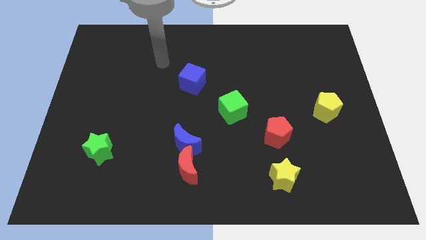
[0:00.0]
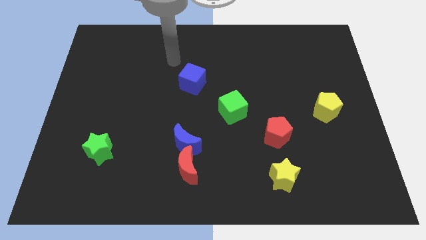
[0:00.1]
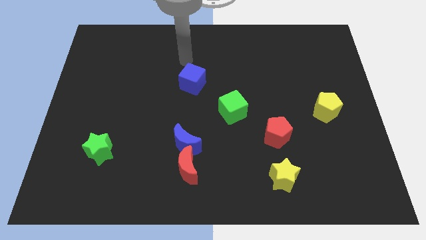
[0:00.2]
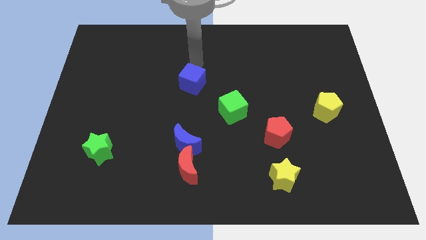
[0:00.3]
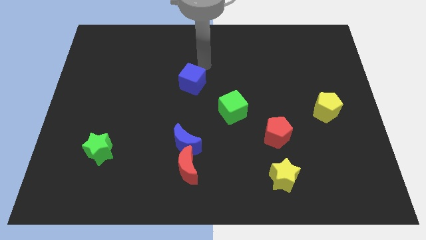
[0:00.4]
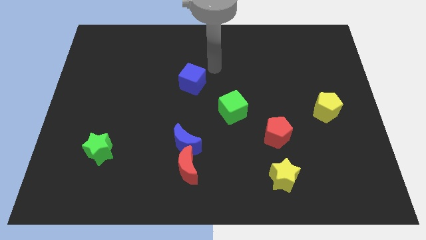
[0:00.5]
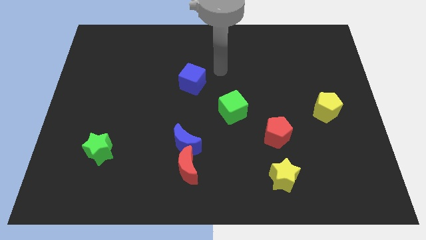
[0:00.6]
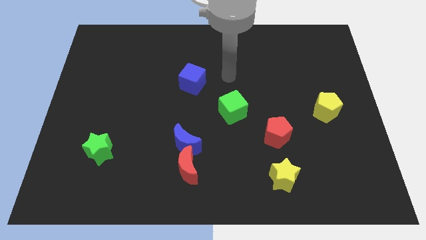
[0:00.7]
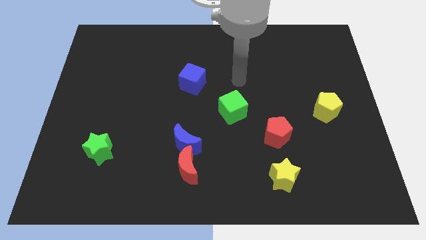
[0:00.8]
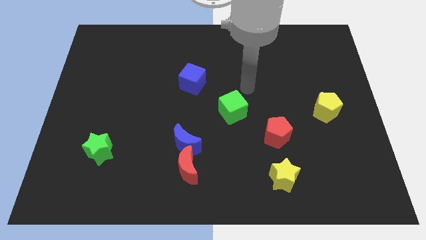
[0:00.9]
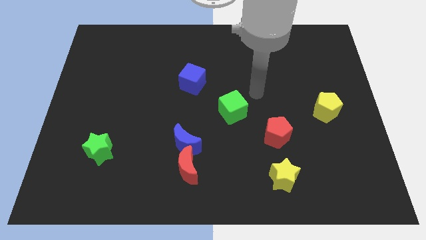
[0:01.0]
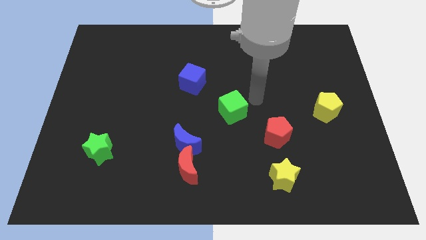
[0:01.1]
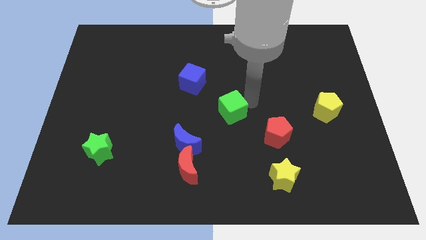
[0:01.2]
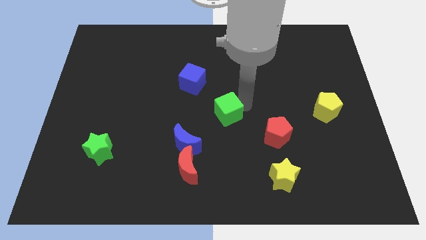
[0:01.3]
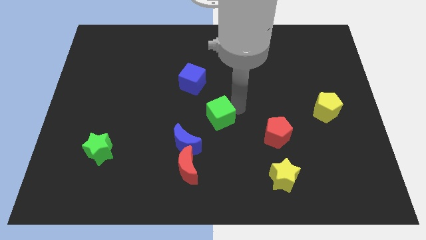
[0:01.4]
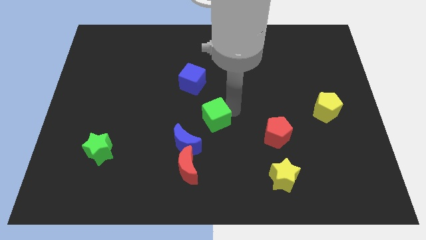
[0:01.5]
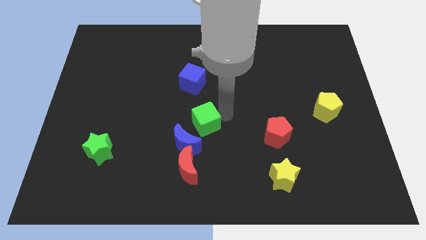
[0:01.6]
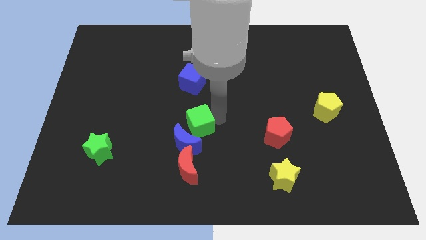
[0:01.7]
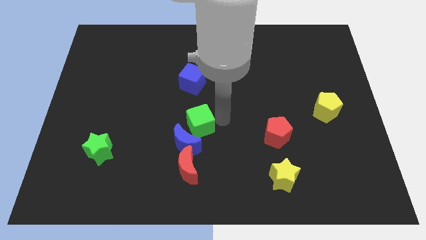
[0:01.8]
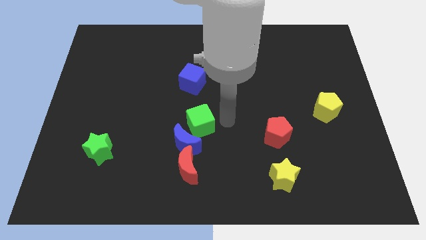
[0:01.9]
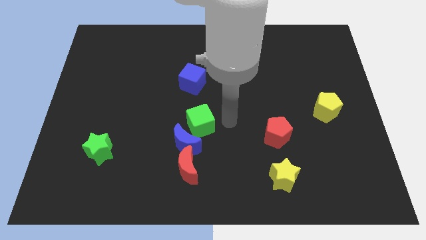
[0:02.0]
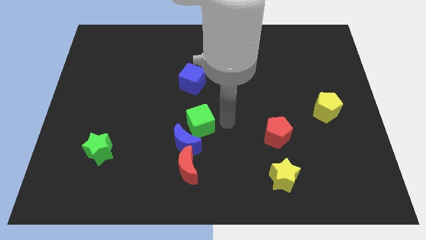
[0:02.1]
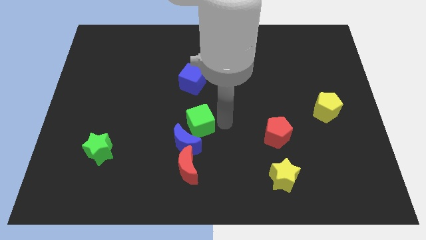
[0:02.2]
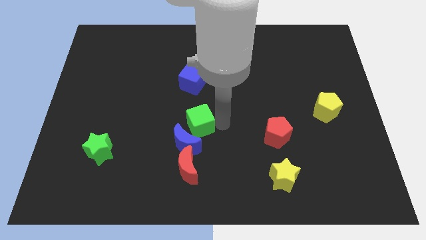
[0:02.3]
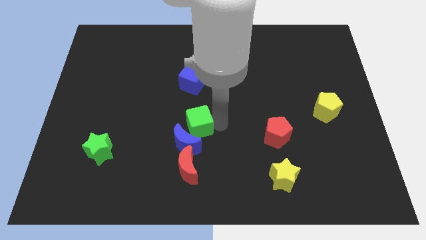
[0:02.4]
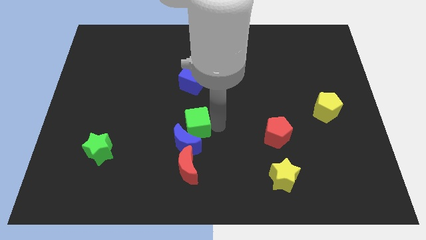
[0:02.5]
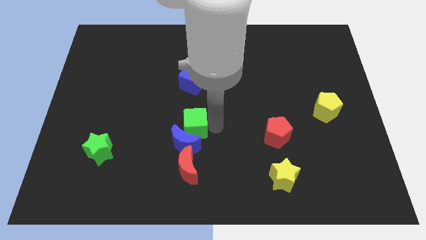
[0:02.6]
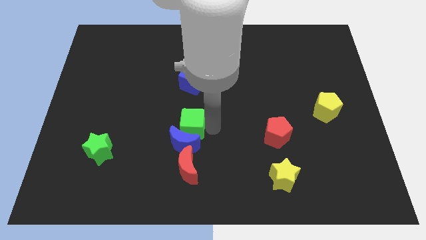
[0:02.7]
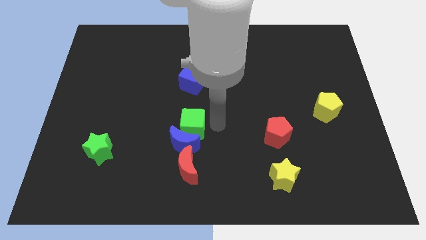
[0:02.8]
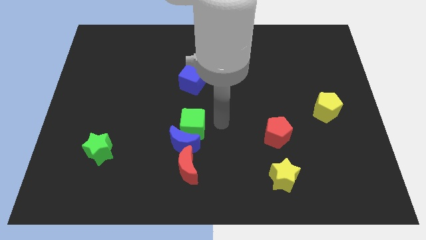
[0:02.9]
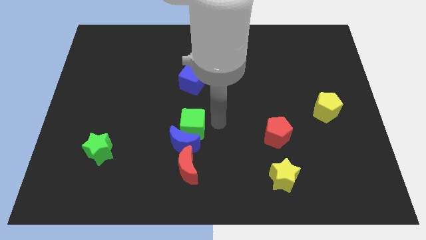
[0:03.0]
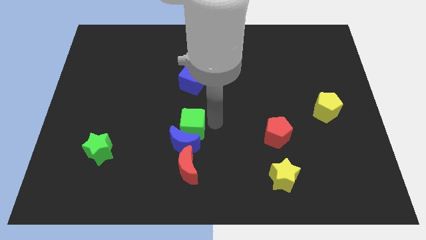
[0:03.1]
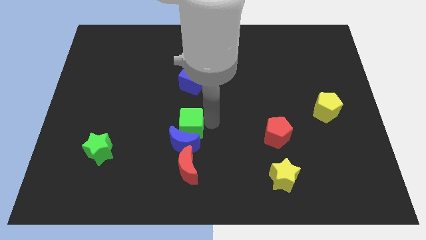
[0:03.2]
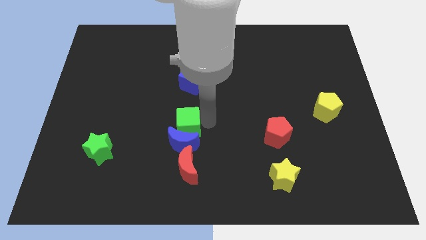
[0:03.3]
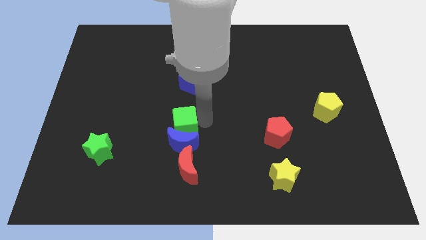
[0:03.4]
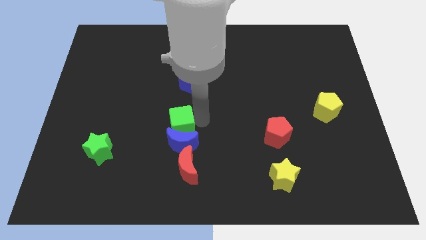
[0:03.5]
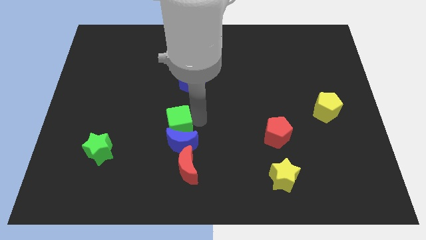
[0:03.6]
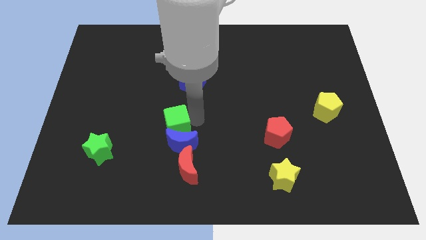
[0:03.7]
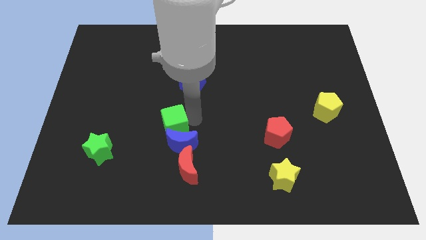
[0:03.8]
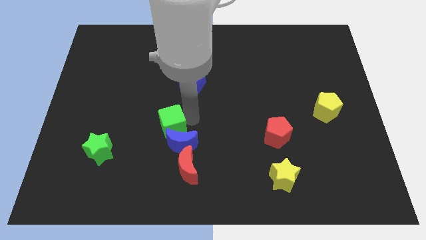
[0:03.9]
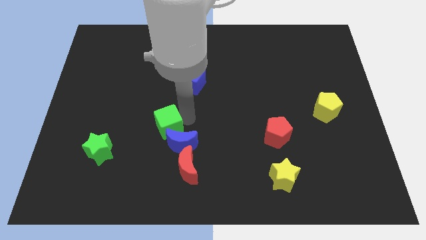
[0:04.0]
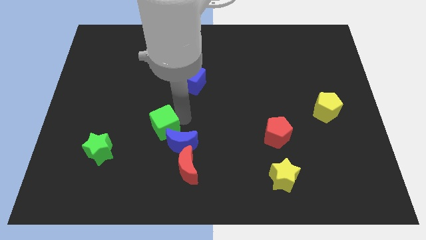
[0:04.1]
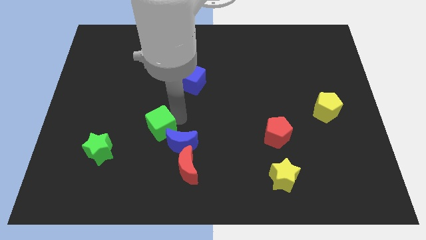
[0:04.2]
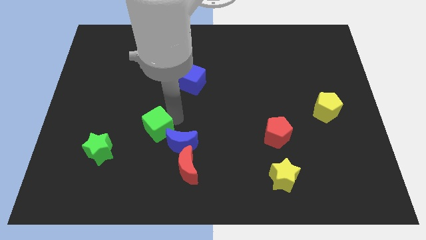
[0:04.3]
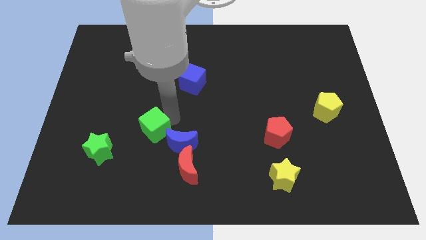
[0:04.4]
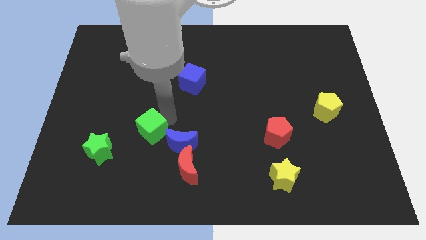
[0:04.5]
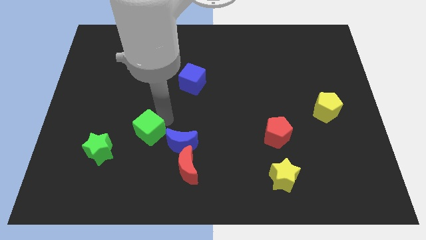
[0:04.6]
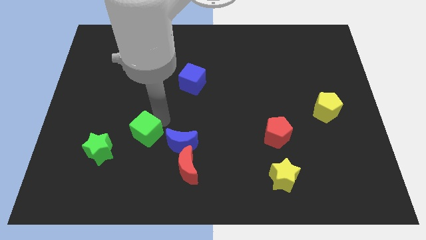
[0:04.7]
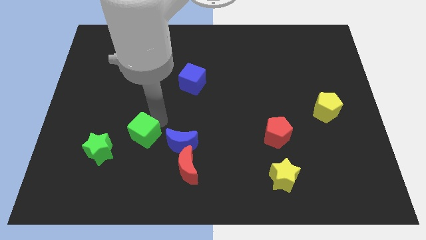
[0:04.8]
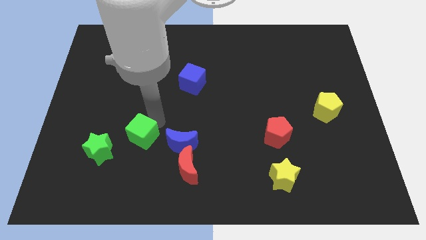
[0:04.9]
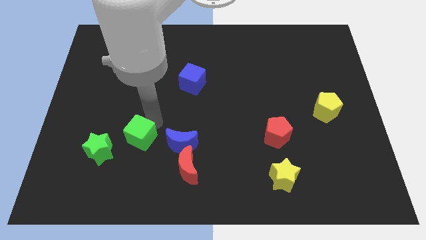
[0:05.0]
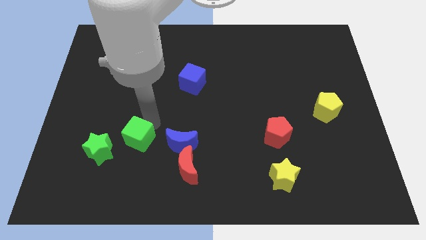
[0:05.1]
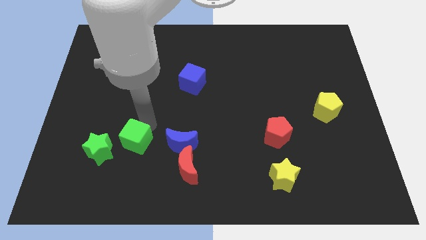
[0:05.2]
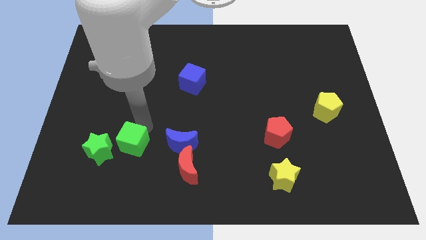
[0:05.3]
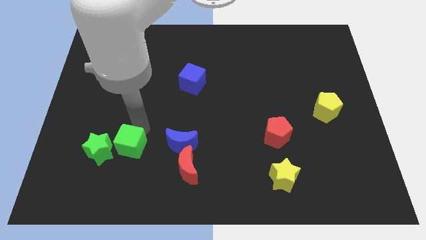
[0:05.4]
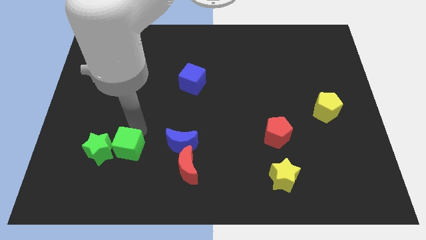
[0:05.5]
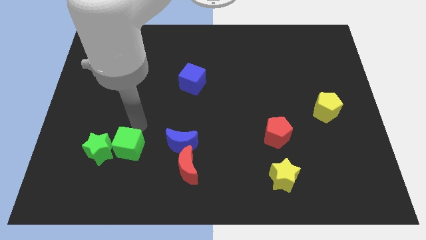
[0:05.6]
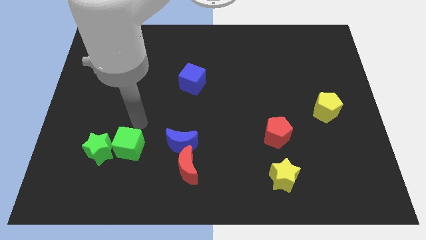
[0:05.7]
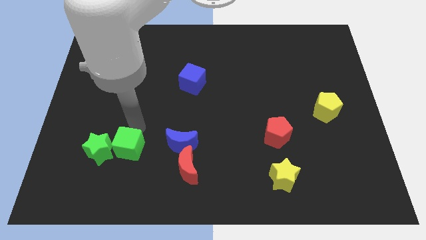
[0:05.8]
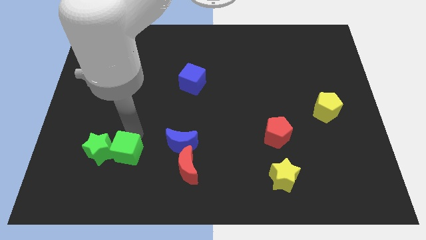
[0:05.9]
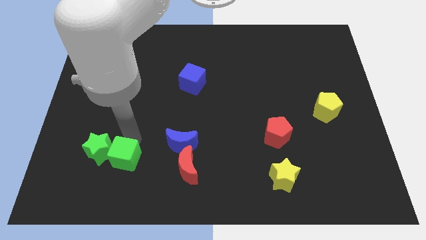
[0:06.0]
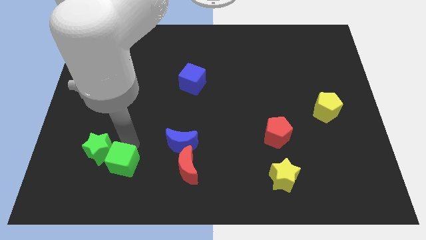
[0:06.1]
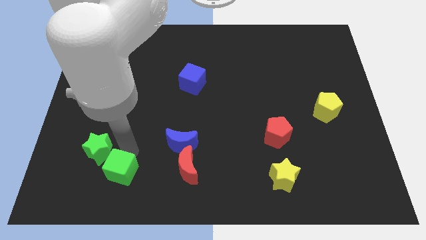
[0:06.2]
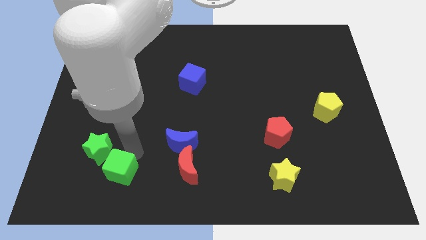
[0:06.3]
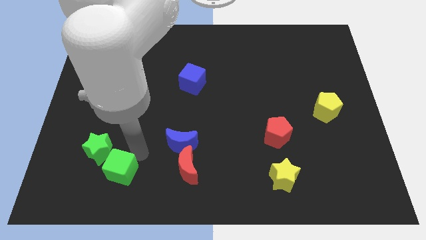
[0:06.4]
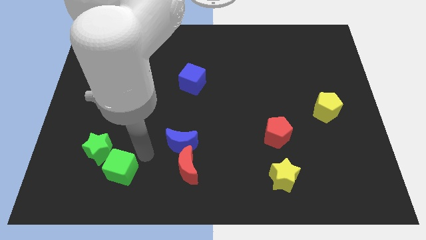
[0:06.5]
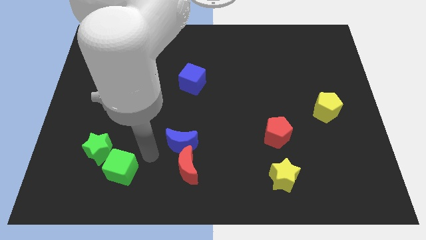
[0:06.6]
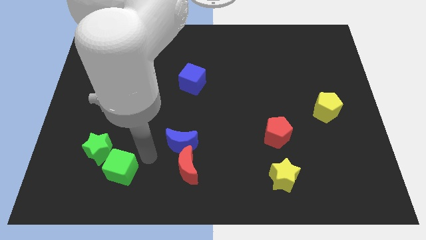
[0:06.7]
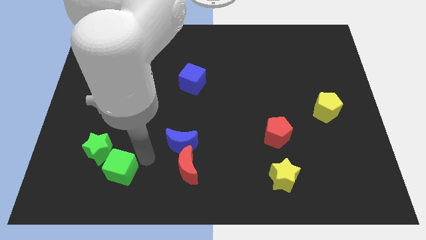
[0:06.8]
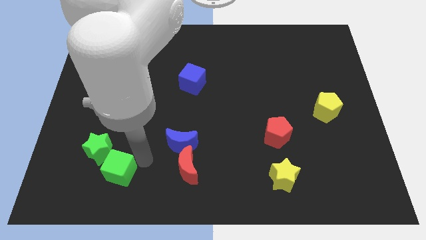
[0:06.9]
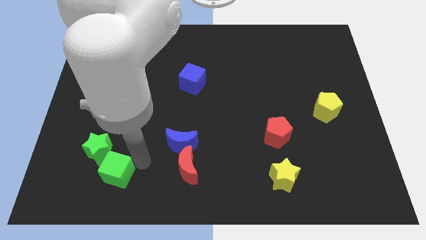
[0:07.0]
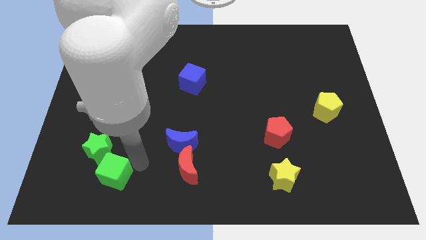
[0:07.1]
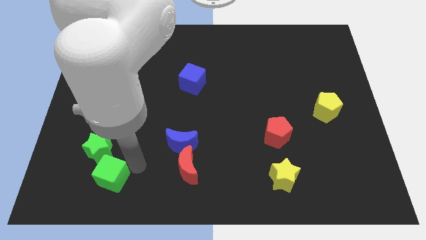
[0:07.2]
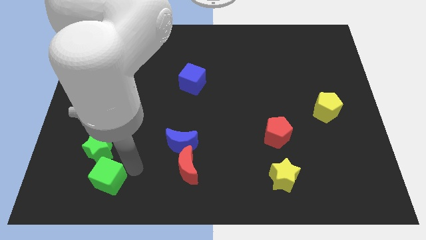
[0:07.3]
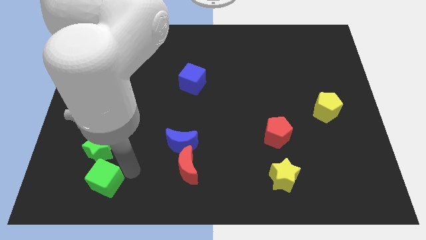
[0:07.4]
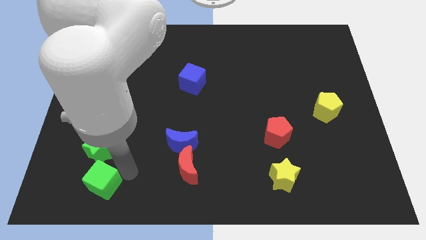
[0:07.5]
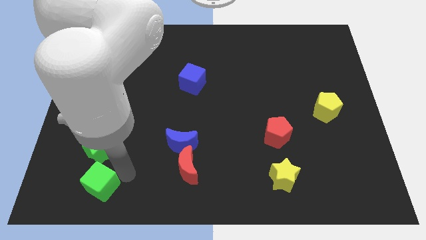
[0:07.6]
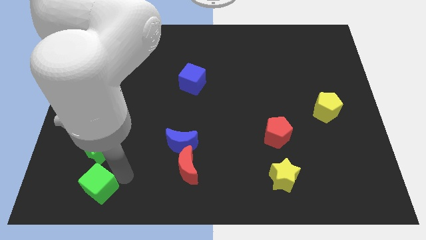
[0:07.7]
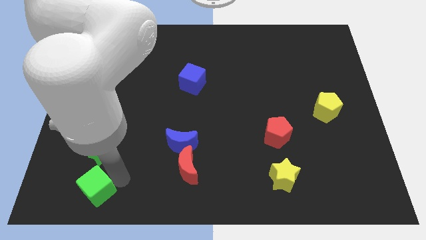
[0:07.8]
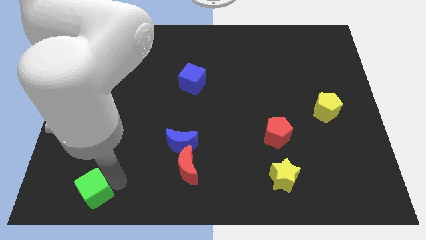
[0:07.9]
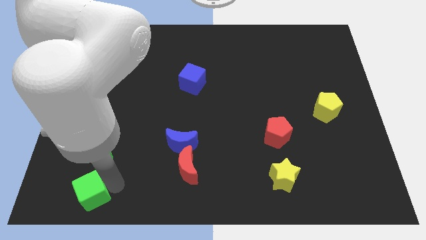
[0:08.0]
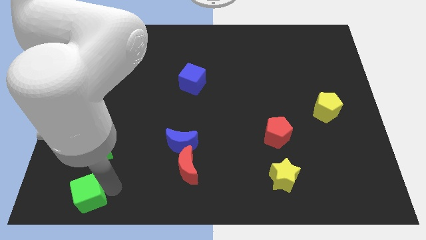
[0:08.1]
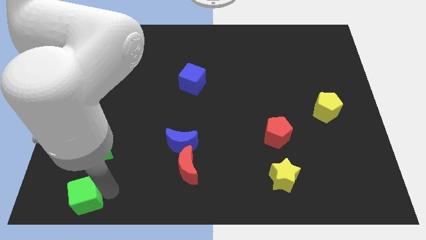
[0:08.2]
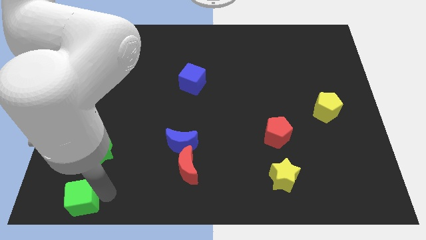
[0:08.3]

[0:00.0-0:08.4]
put the green cube to the bottom left
